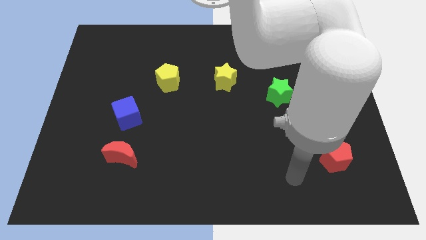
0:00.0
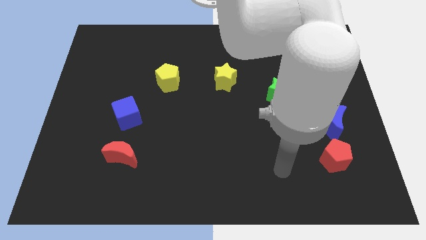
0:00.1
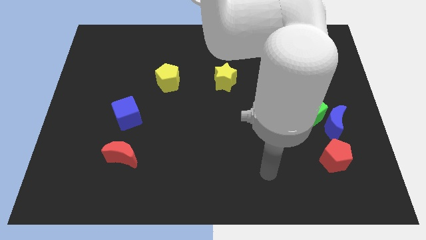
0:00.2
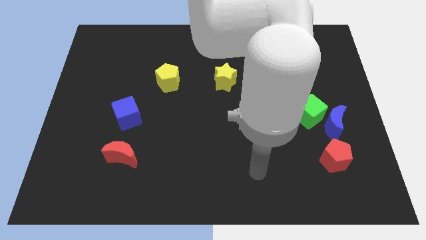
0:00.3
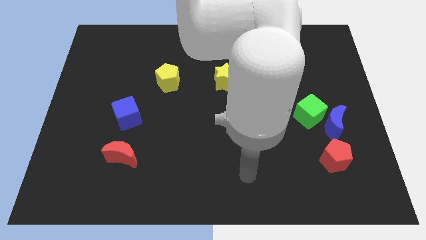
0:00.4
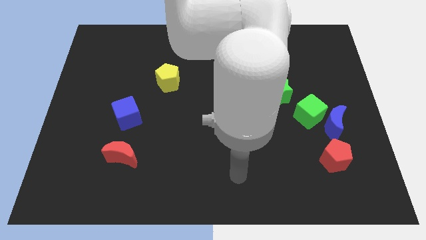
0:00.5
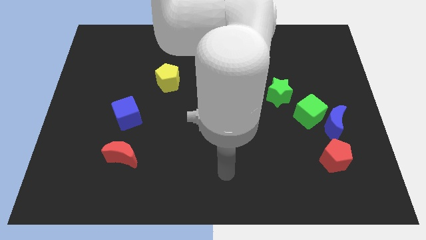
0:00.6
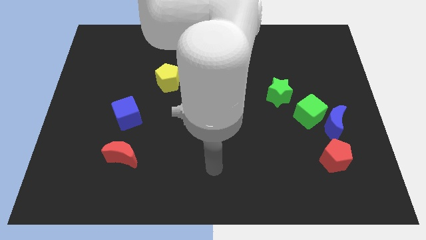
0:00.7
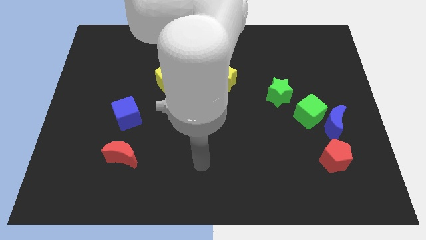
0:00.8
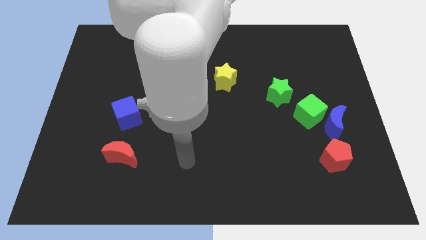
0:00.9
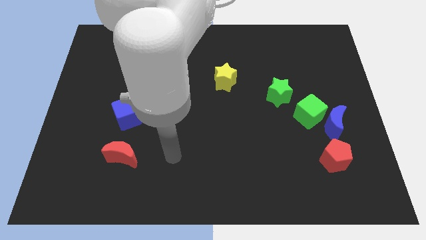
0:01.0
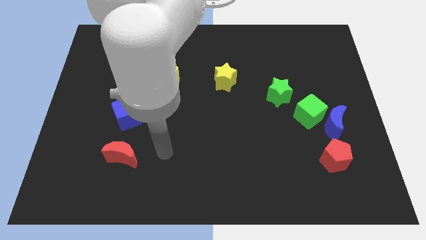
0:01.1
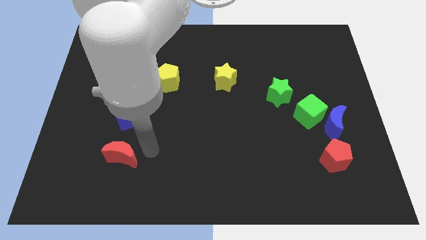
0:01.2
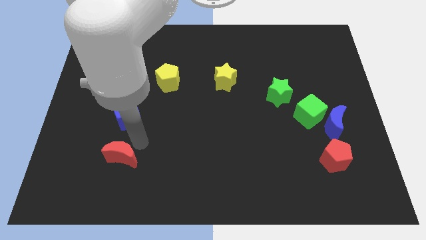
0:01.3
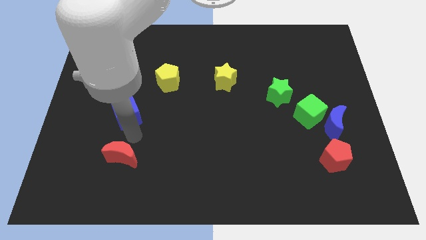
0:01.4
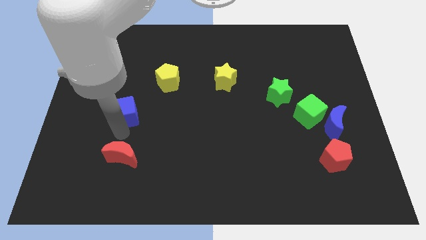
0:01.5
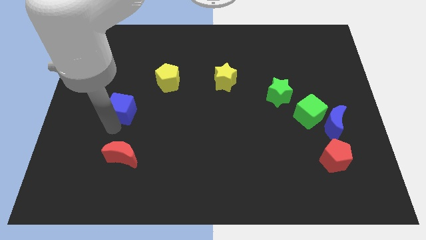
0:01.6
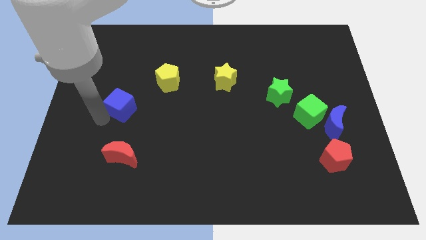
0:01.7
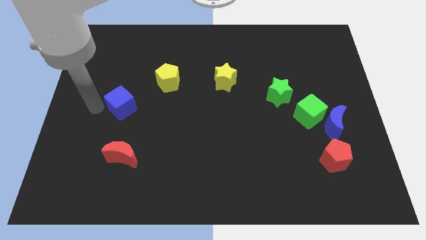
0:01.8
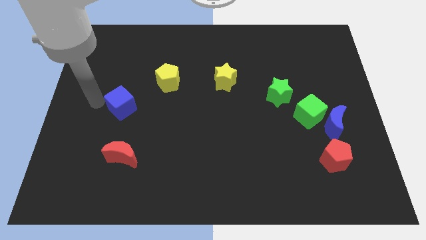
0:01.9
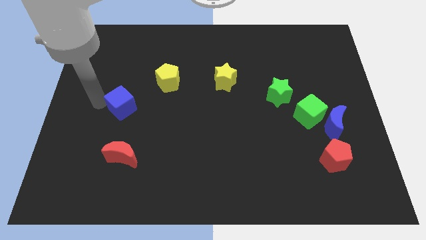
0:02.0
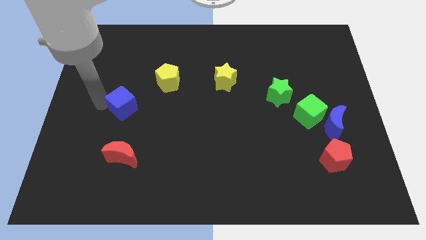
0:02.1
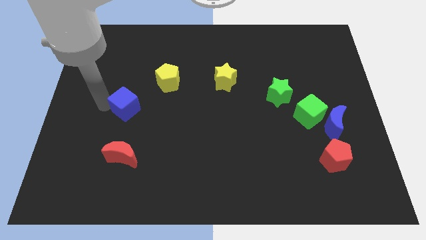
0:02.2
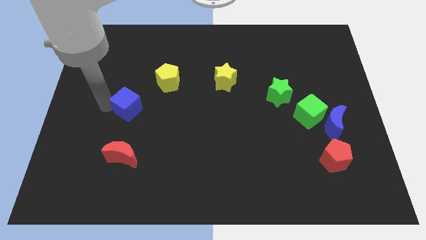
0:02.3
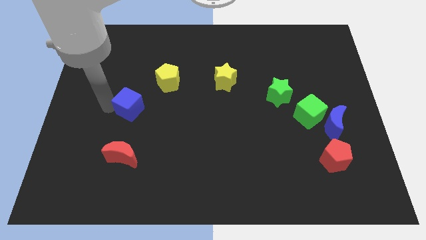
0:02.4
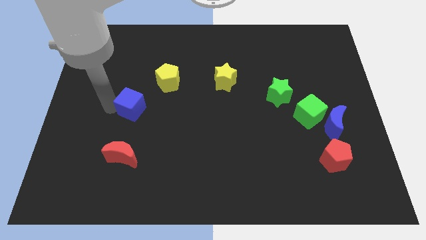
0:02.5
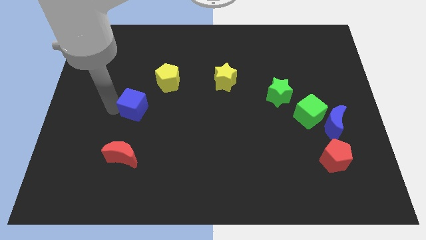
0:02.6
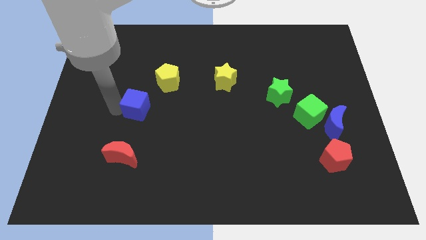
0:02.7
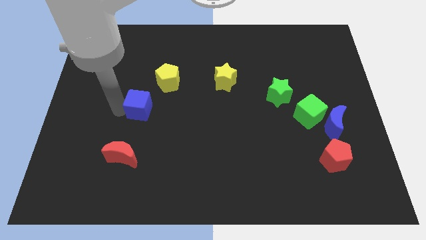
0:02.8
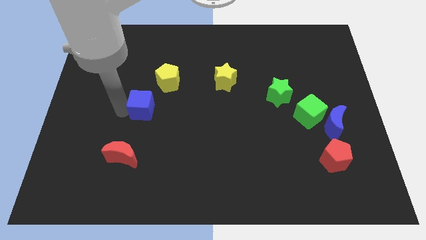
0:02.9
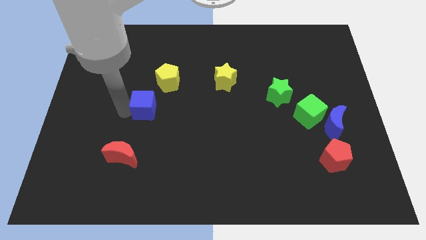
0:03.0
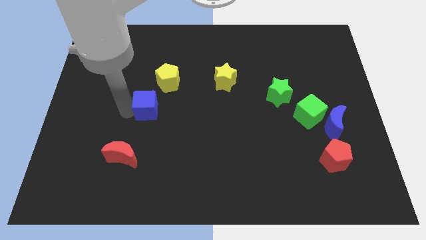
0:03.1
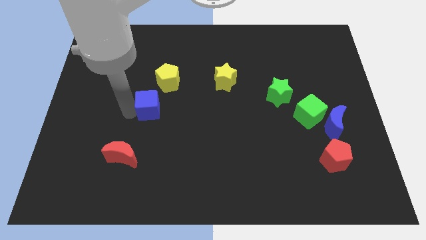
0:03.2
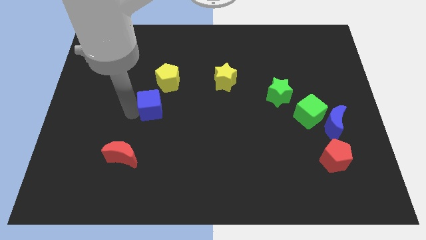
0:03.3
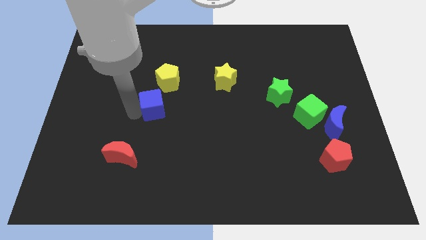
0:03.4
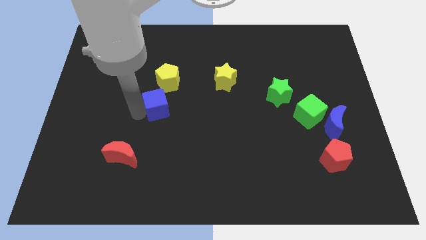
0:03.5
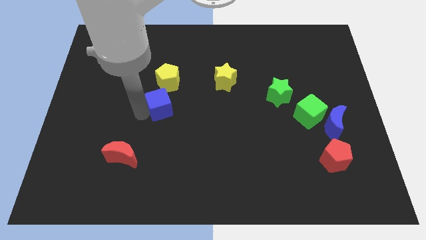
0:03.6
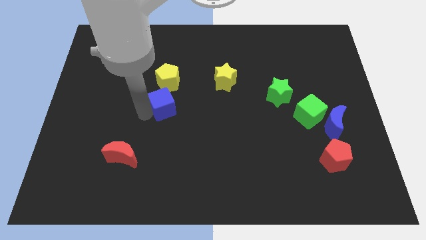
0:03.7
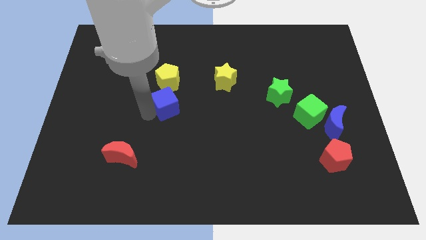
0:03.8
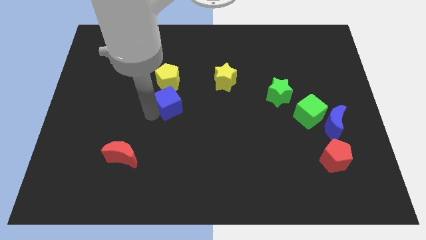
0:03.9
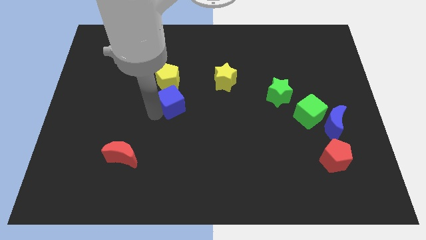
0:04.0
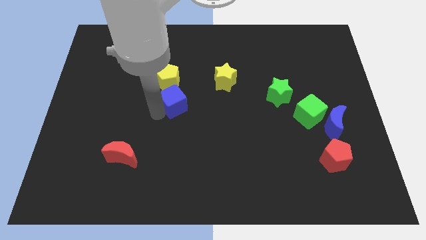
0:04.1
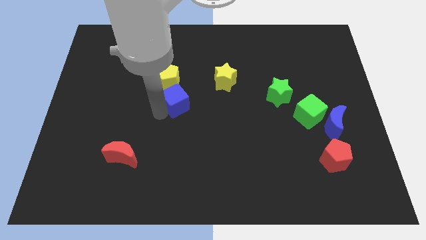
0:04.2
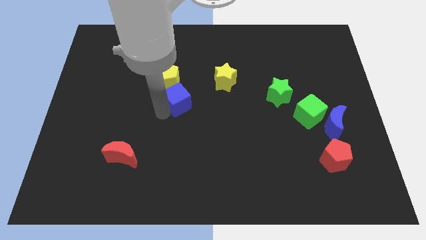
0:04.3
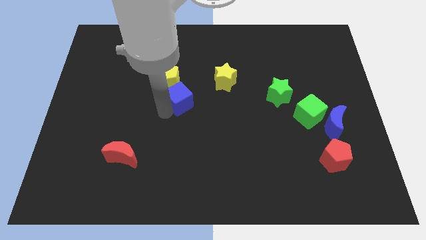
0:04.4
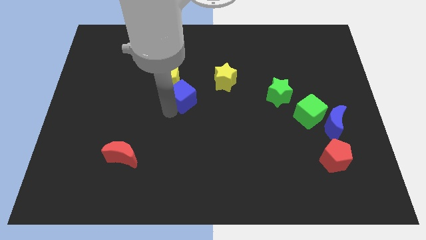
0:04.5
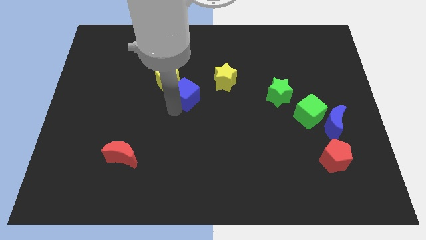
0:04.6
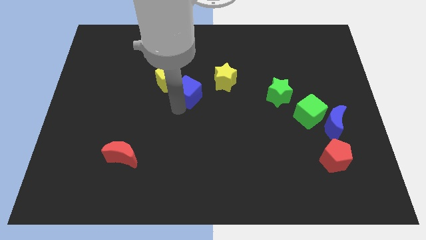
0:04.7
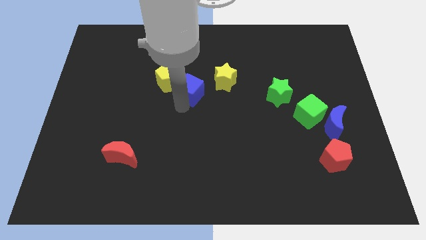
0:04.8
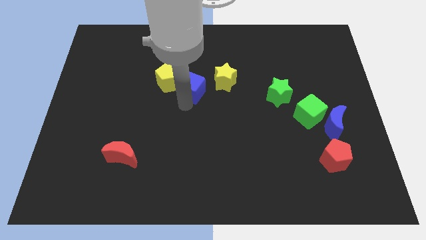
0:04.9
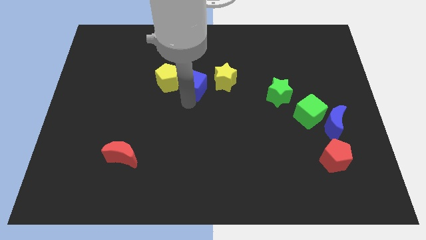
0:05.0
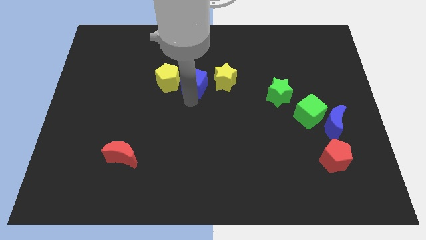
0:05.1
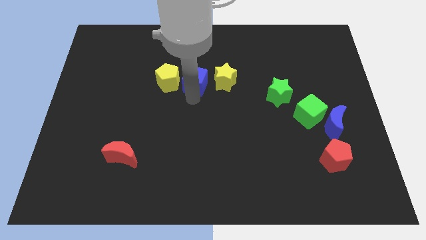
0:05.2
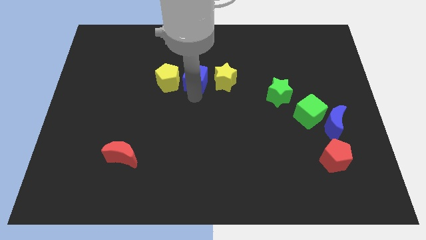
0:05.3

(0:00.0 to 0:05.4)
move the blue cube diagonally up and to the right of the yellow pentagon

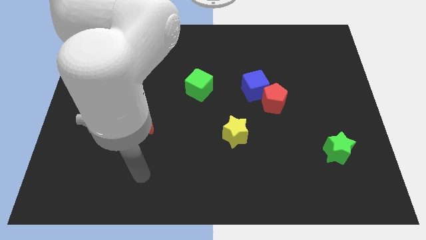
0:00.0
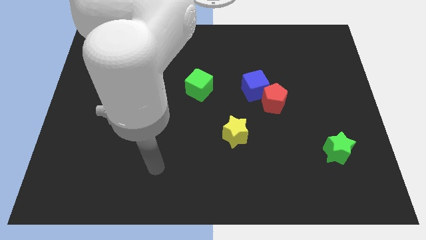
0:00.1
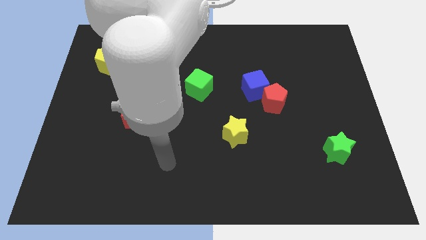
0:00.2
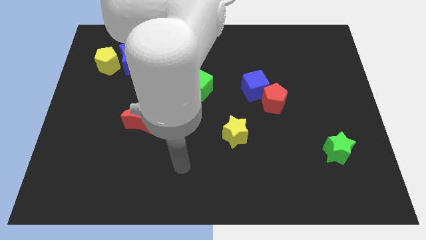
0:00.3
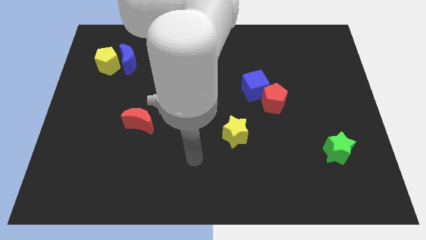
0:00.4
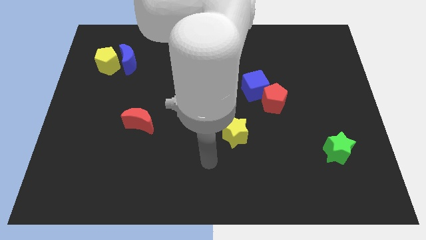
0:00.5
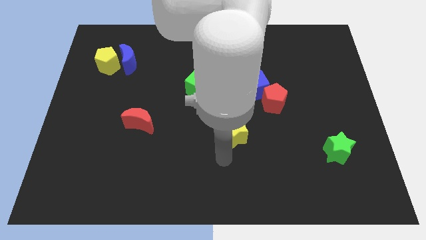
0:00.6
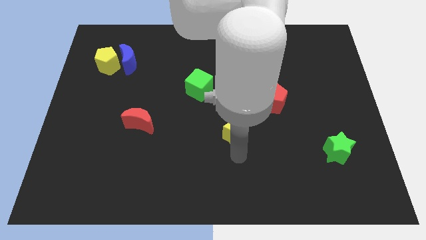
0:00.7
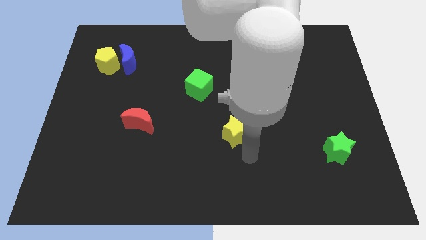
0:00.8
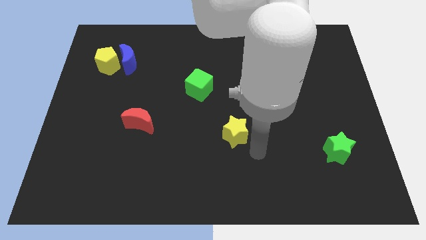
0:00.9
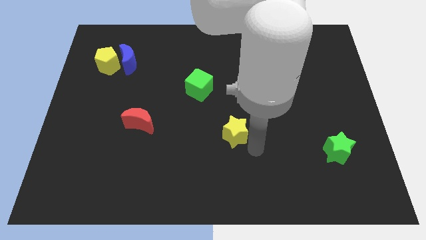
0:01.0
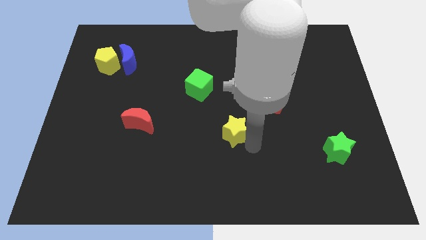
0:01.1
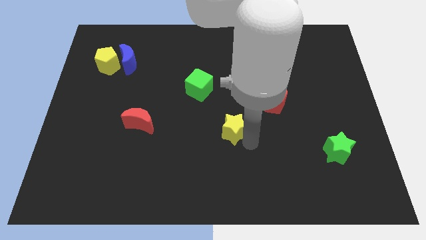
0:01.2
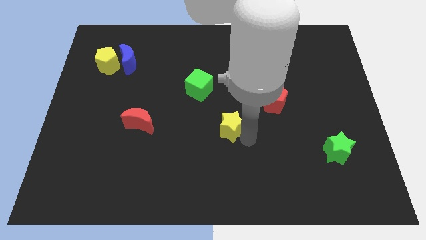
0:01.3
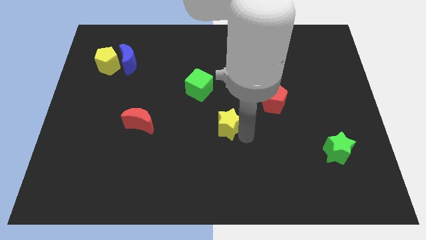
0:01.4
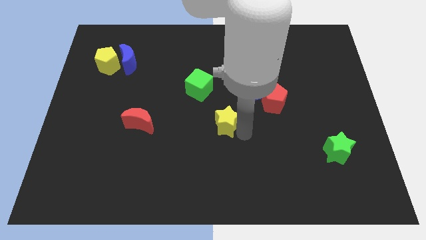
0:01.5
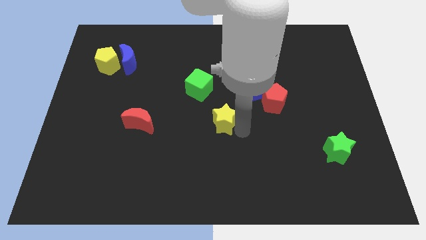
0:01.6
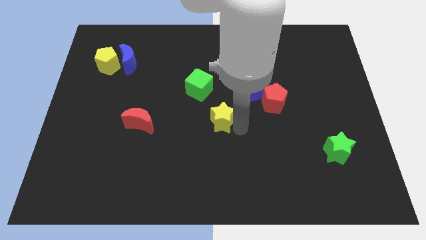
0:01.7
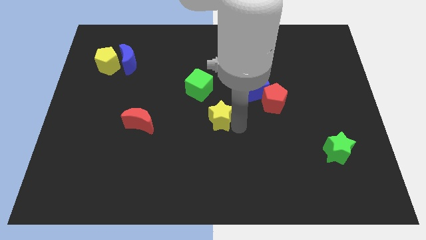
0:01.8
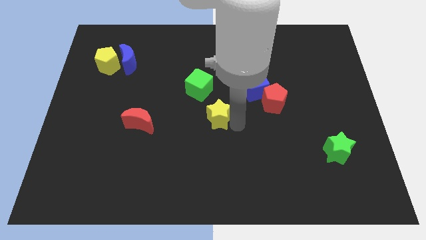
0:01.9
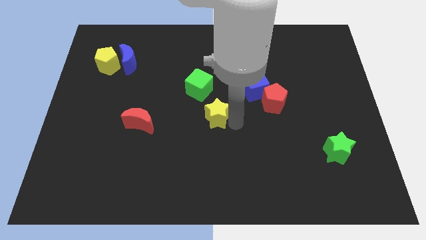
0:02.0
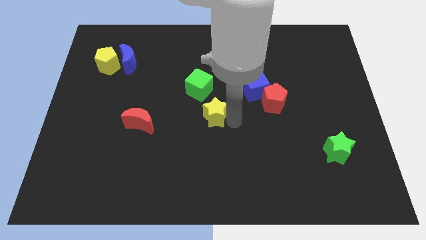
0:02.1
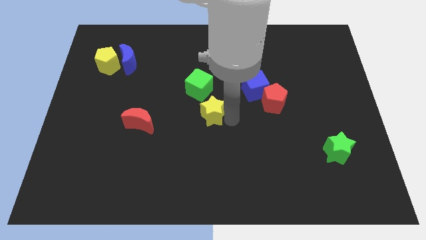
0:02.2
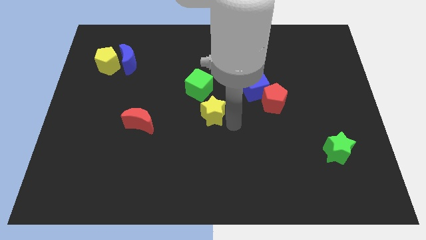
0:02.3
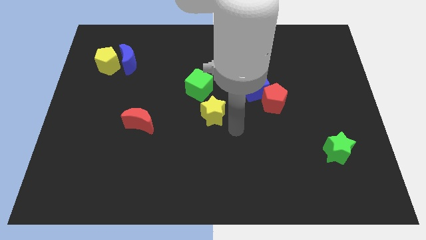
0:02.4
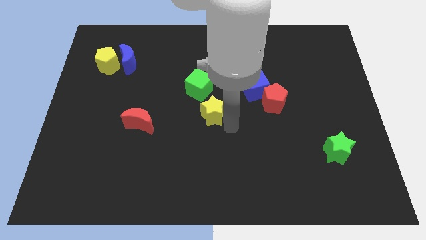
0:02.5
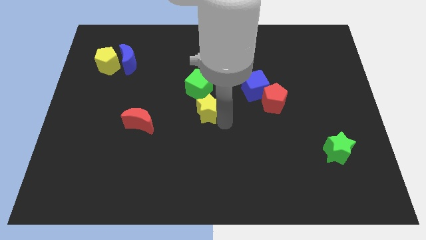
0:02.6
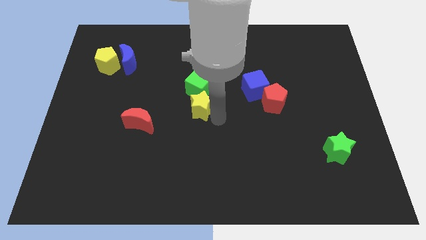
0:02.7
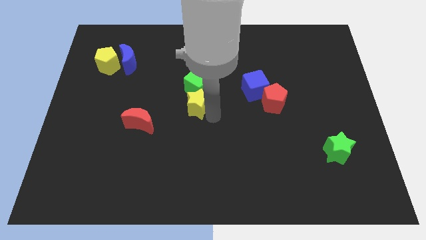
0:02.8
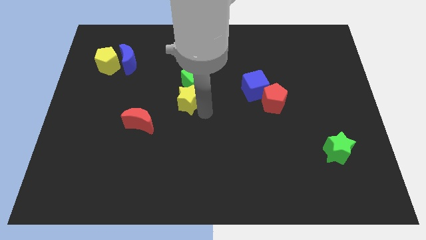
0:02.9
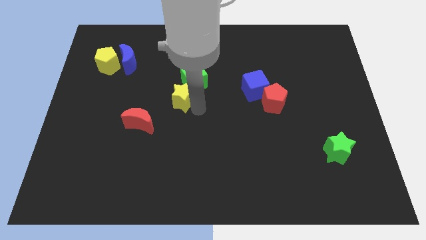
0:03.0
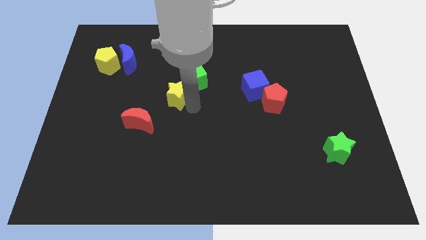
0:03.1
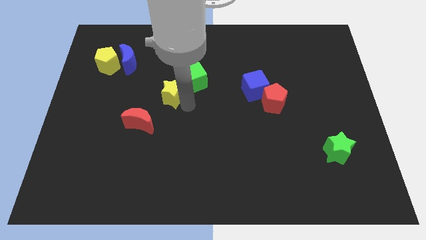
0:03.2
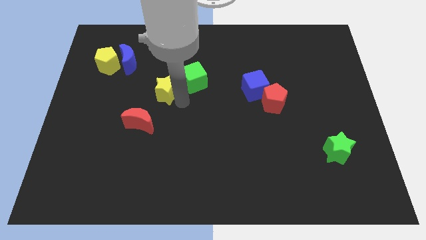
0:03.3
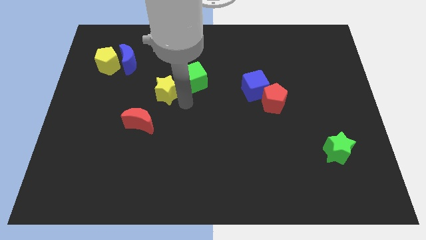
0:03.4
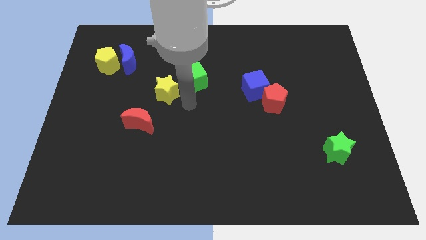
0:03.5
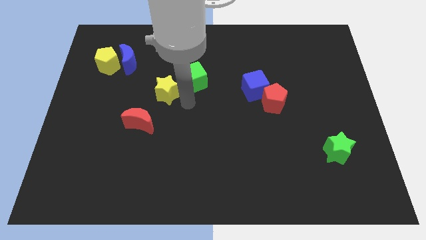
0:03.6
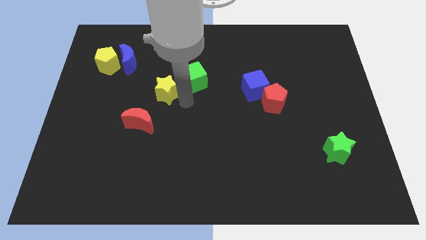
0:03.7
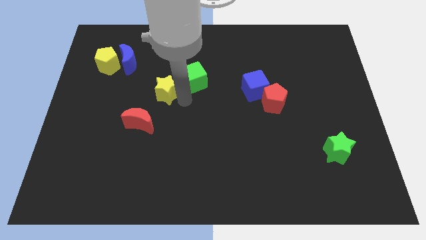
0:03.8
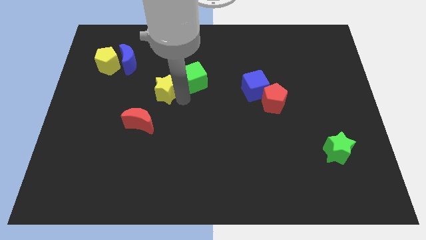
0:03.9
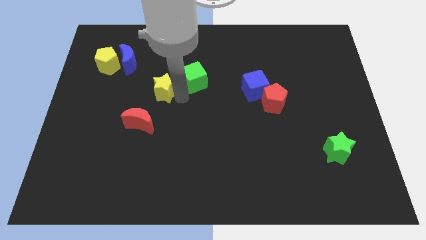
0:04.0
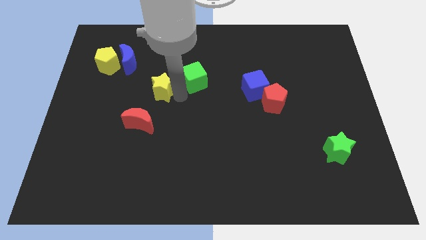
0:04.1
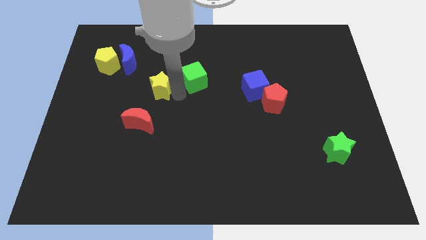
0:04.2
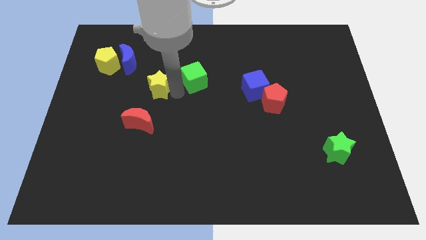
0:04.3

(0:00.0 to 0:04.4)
move the yellow star diagonally down and to the right of the blue moon
